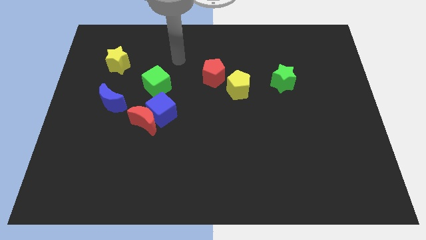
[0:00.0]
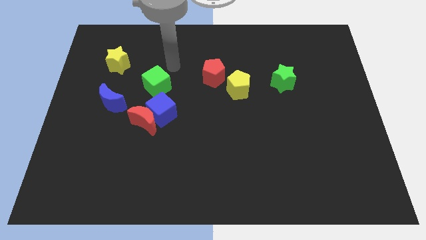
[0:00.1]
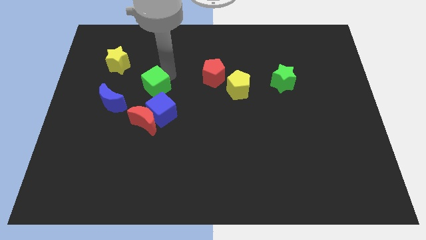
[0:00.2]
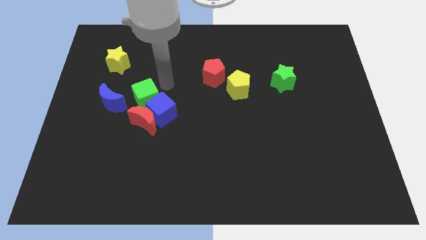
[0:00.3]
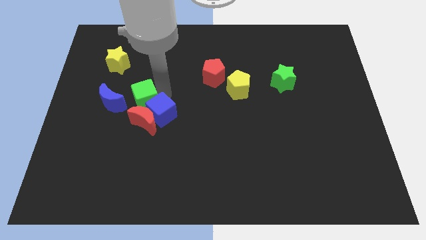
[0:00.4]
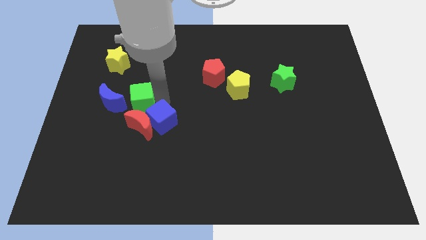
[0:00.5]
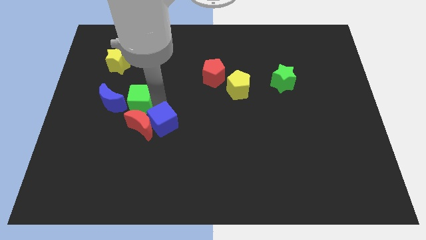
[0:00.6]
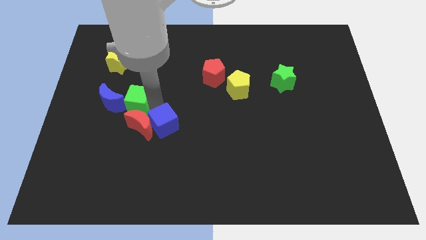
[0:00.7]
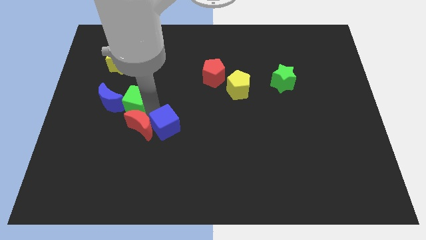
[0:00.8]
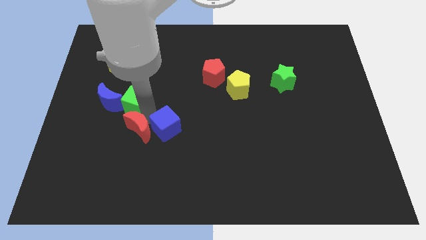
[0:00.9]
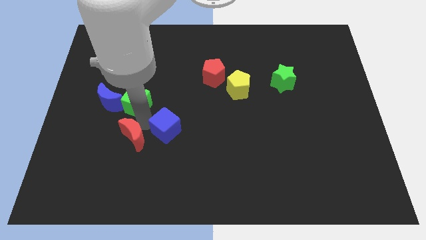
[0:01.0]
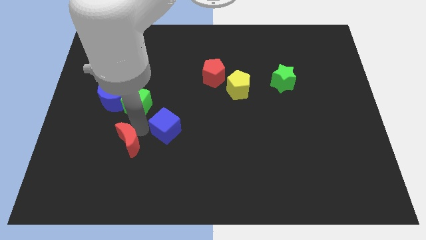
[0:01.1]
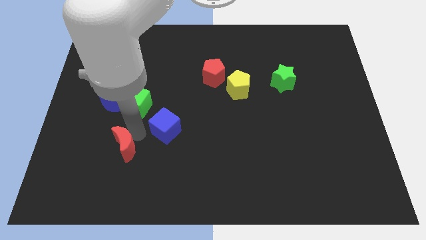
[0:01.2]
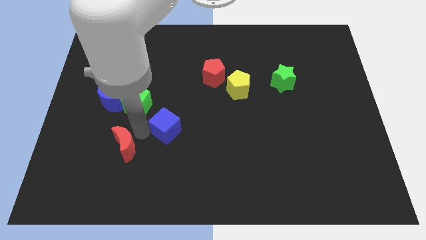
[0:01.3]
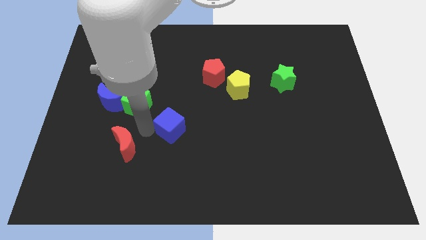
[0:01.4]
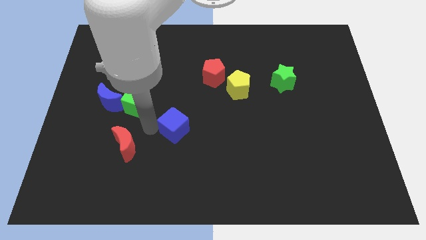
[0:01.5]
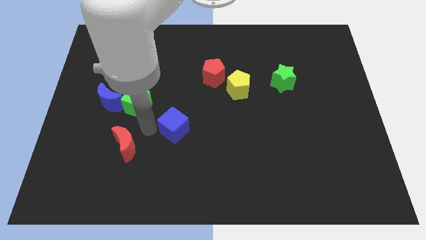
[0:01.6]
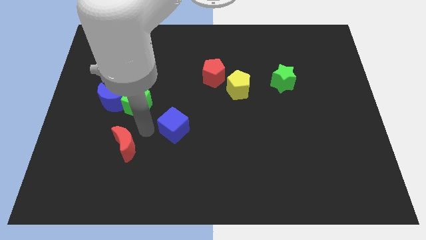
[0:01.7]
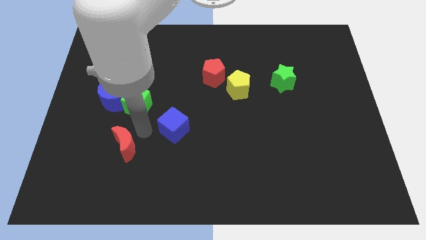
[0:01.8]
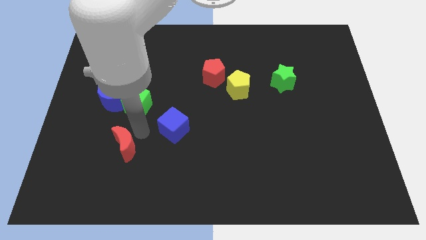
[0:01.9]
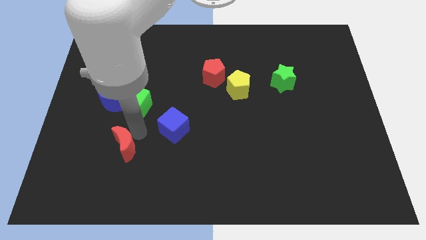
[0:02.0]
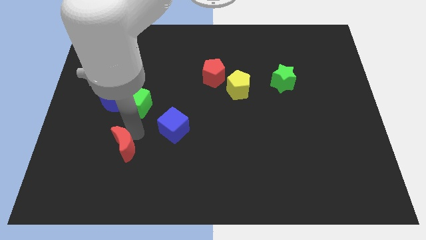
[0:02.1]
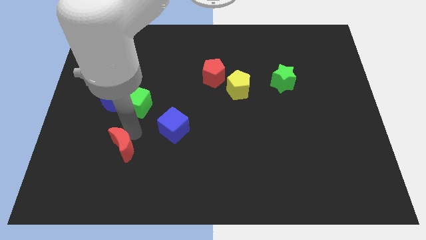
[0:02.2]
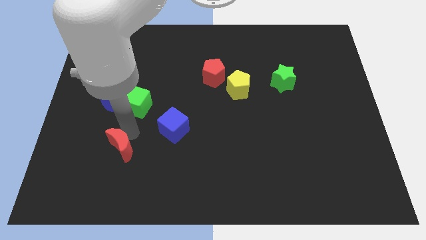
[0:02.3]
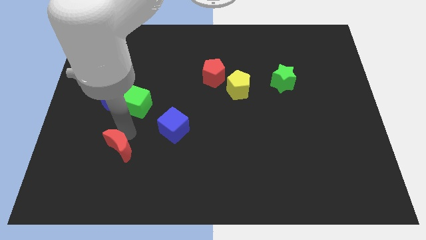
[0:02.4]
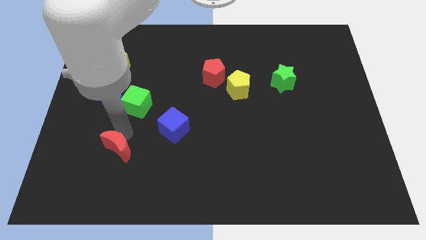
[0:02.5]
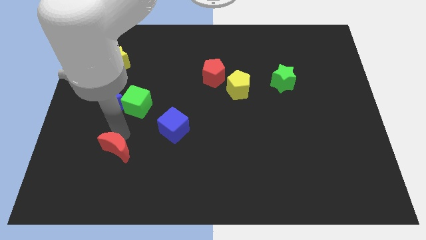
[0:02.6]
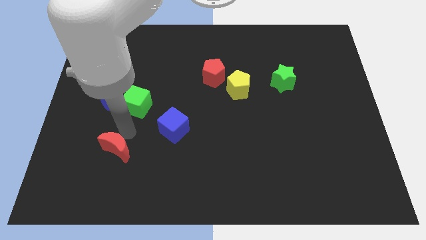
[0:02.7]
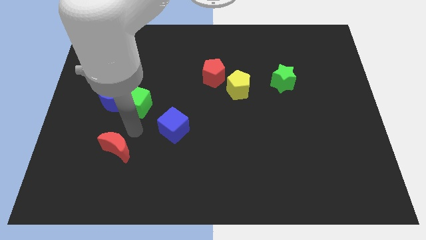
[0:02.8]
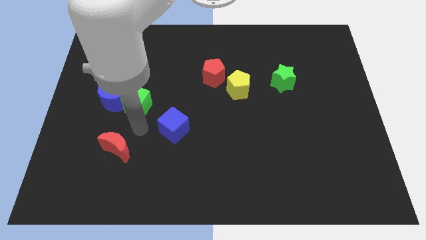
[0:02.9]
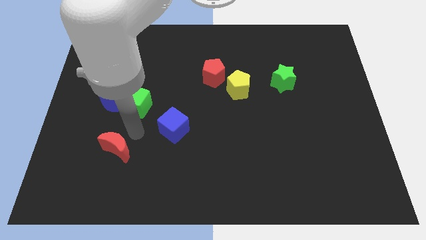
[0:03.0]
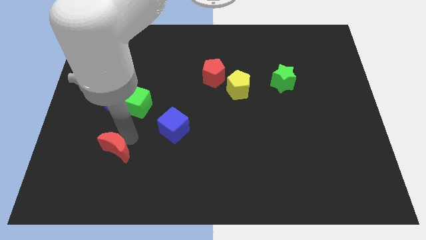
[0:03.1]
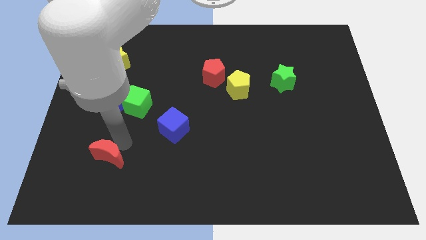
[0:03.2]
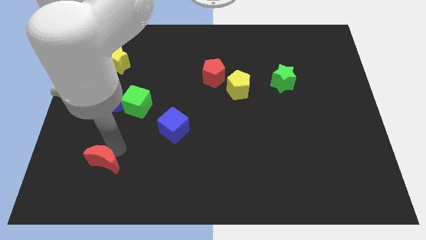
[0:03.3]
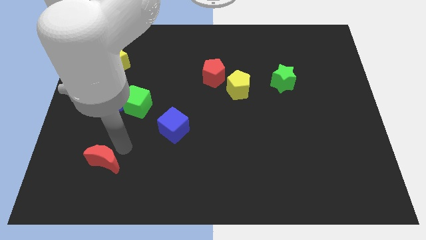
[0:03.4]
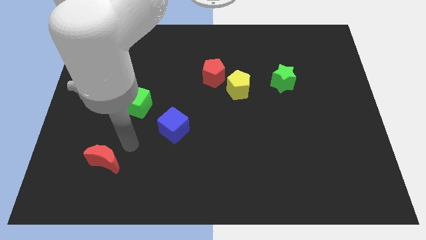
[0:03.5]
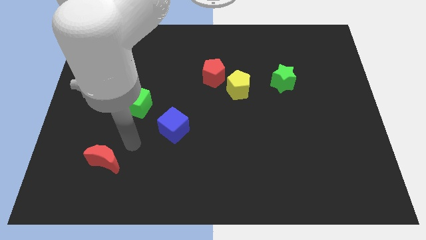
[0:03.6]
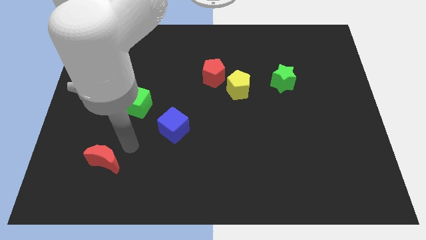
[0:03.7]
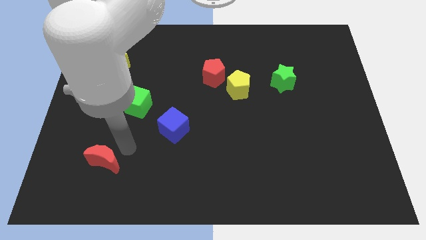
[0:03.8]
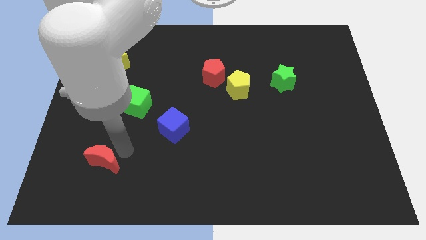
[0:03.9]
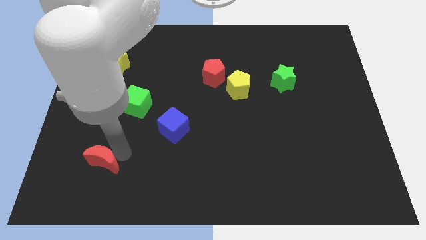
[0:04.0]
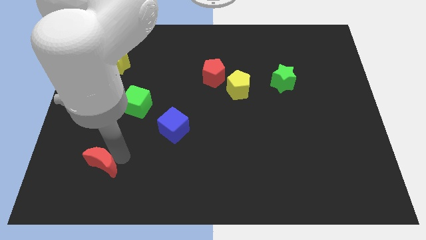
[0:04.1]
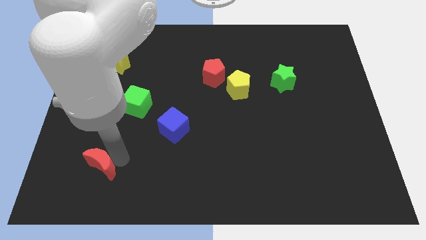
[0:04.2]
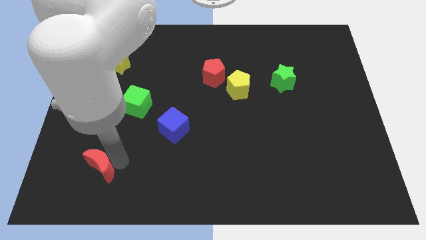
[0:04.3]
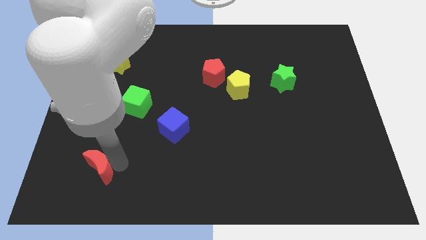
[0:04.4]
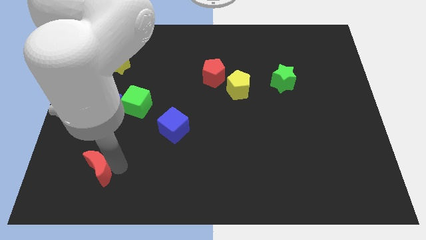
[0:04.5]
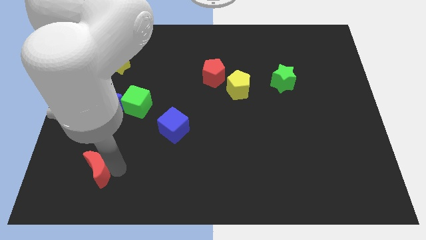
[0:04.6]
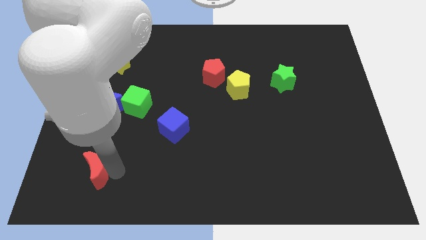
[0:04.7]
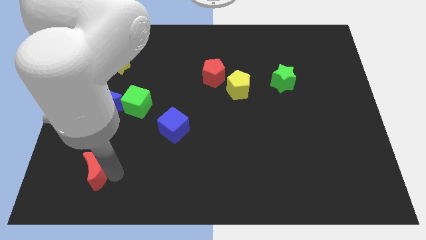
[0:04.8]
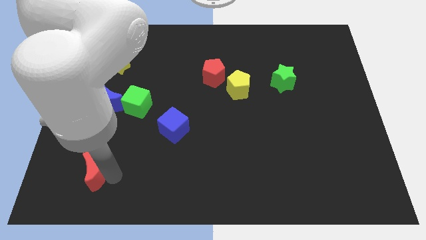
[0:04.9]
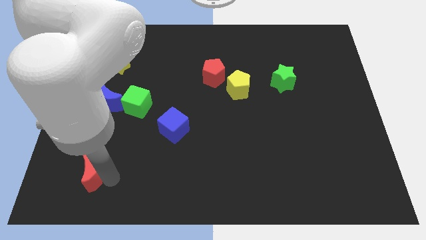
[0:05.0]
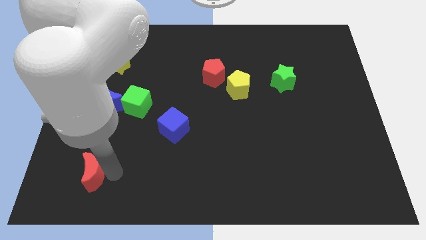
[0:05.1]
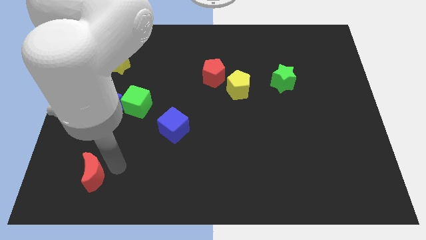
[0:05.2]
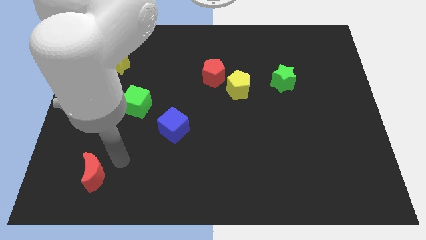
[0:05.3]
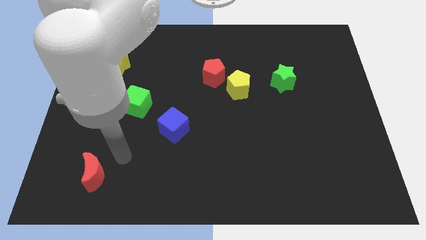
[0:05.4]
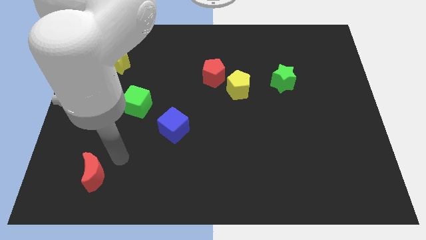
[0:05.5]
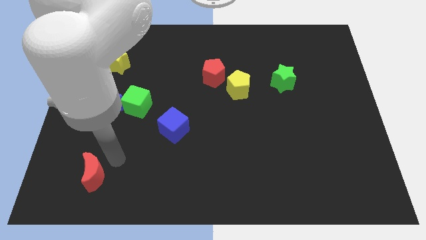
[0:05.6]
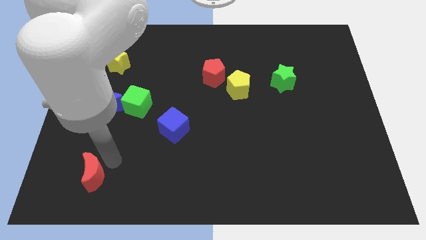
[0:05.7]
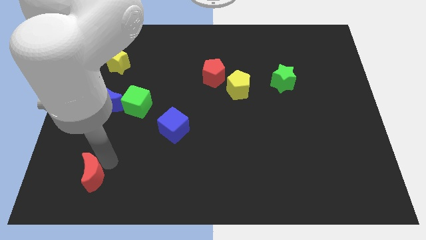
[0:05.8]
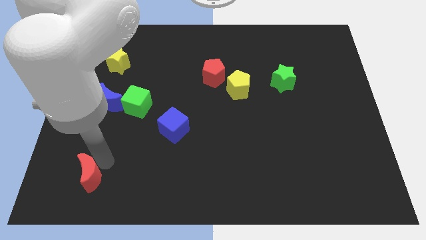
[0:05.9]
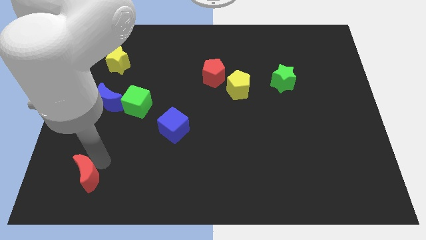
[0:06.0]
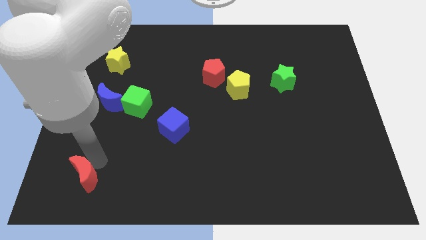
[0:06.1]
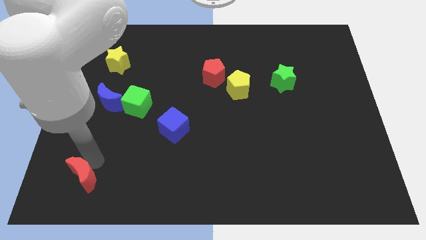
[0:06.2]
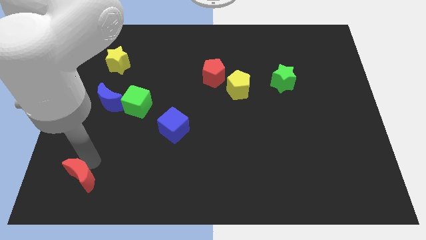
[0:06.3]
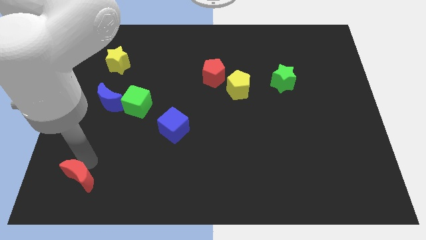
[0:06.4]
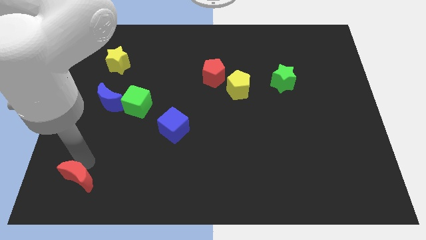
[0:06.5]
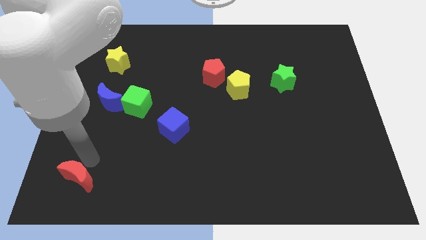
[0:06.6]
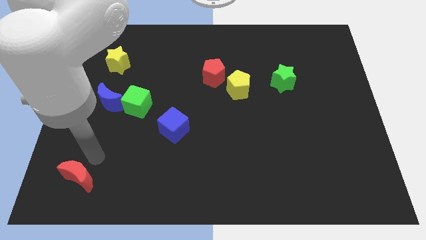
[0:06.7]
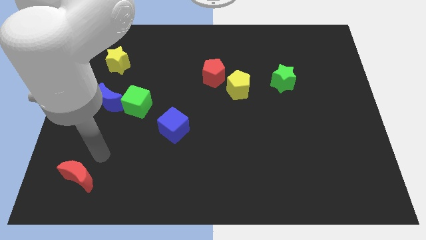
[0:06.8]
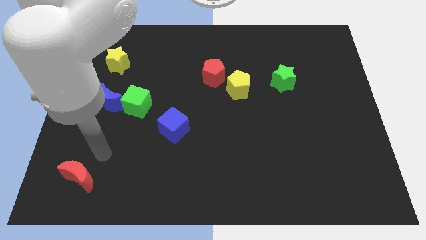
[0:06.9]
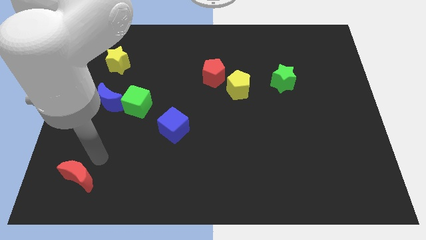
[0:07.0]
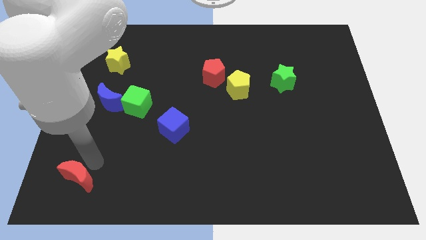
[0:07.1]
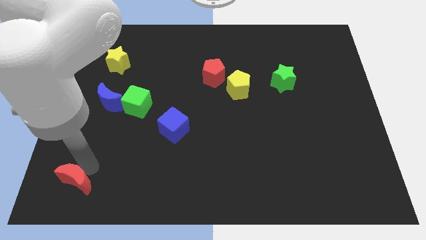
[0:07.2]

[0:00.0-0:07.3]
push the red moon to the bottom left

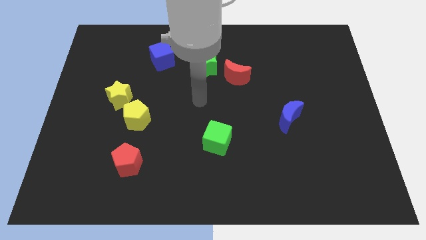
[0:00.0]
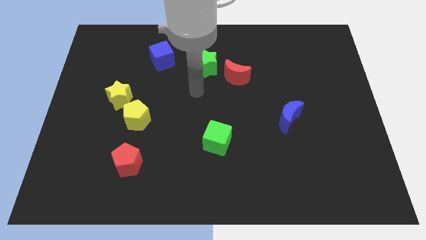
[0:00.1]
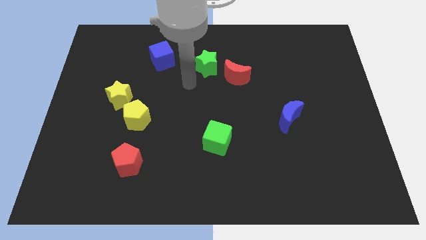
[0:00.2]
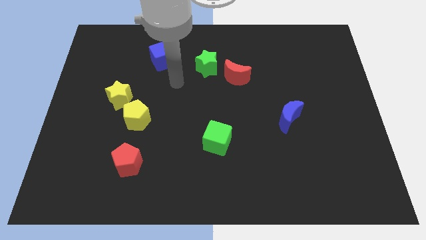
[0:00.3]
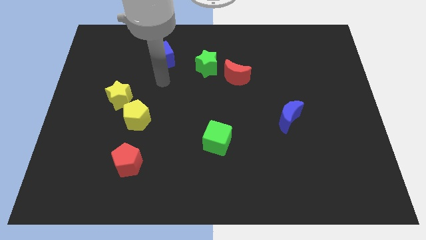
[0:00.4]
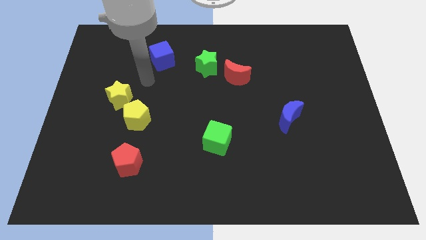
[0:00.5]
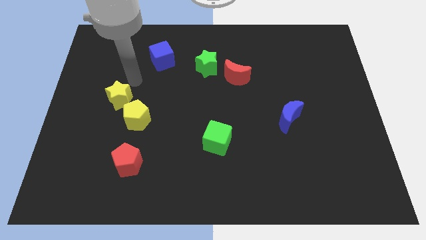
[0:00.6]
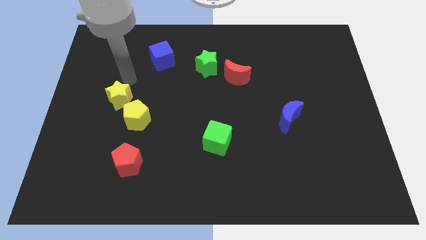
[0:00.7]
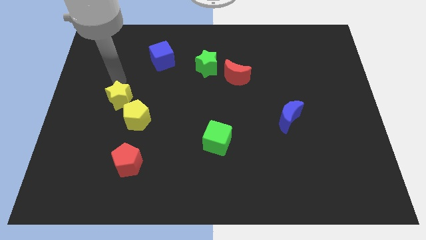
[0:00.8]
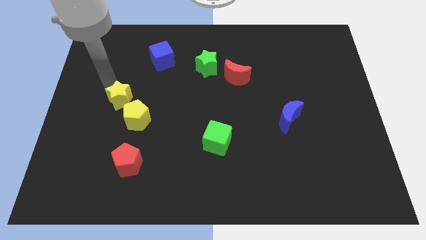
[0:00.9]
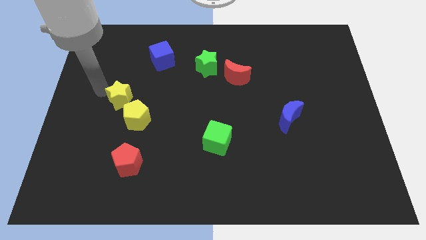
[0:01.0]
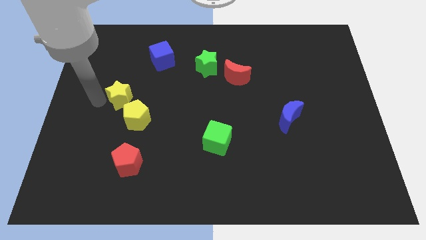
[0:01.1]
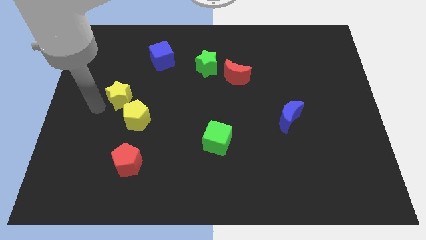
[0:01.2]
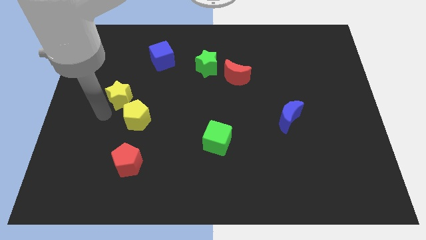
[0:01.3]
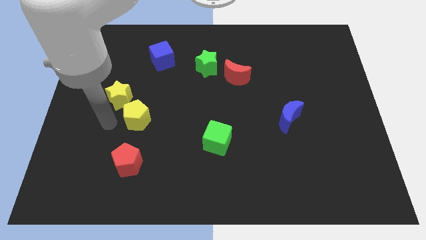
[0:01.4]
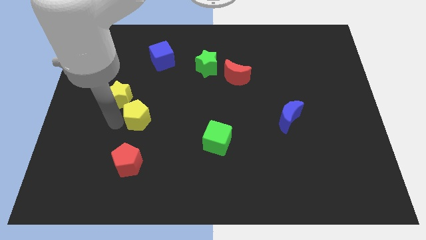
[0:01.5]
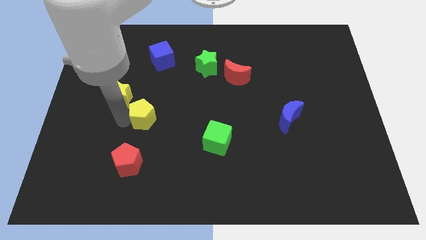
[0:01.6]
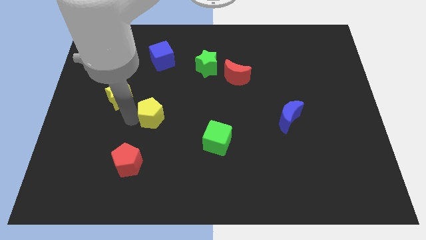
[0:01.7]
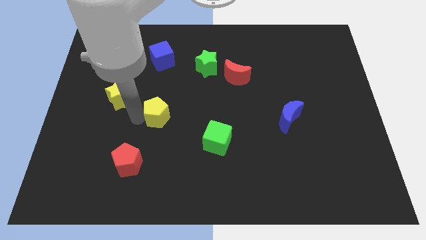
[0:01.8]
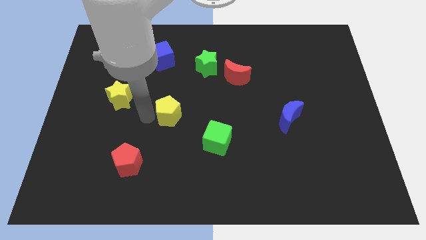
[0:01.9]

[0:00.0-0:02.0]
slide the yellow pentagon to the center of the board
